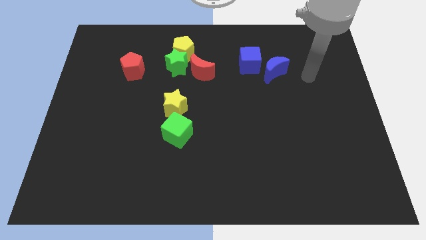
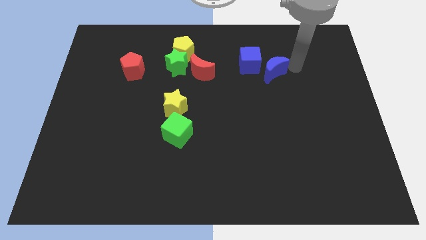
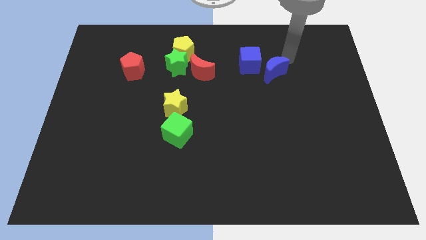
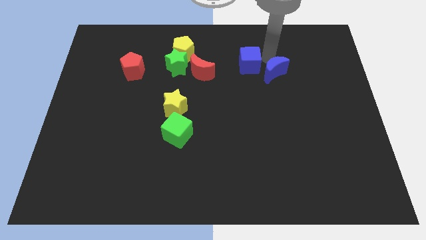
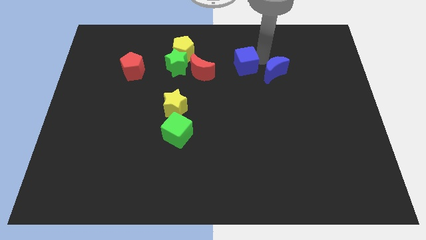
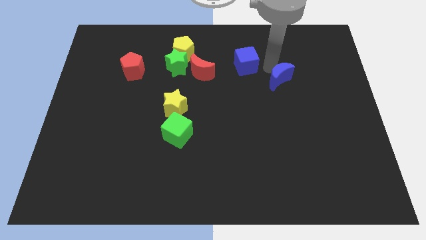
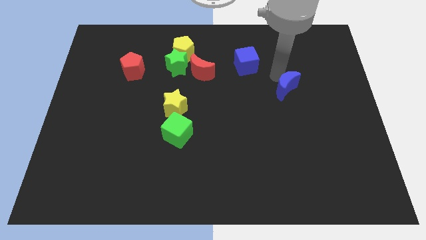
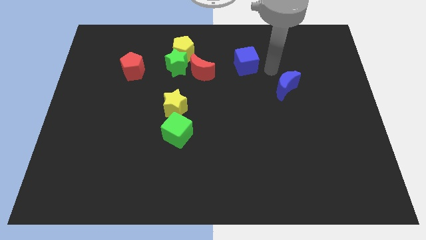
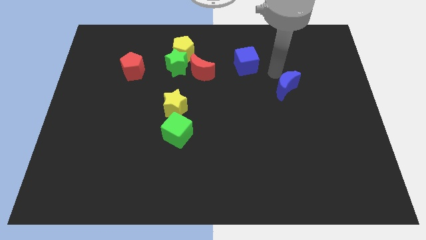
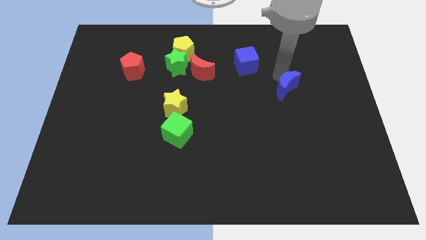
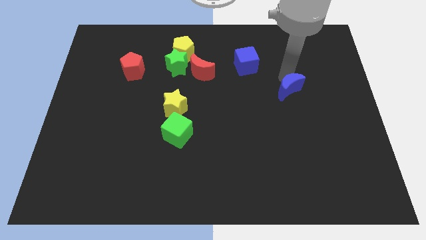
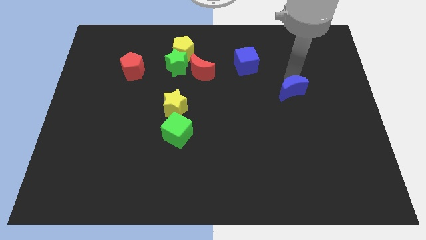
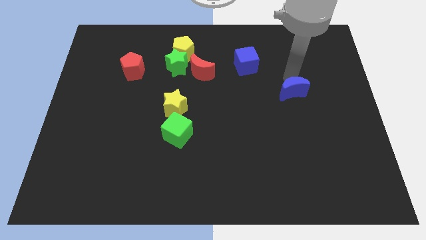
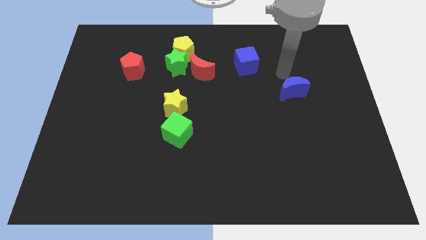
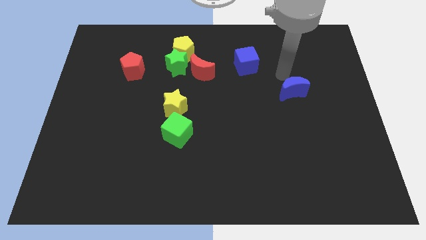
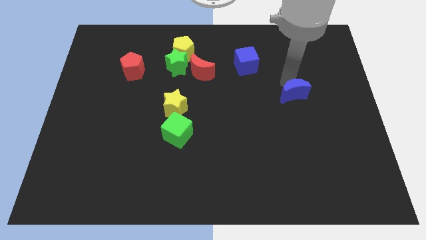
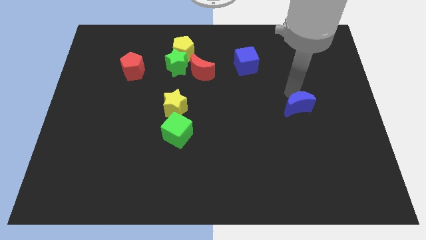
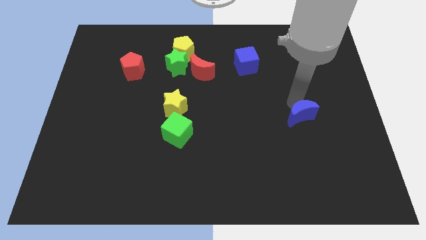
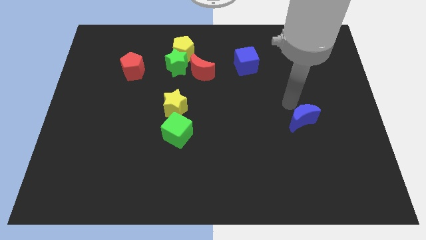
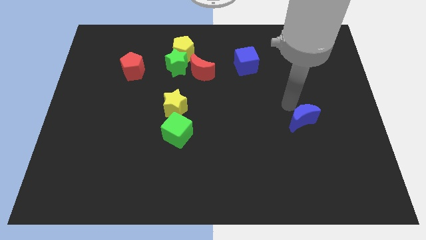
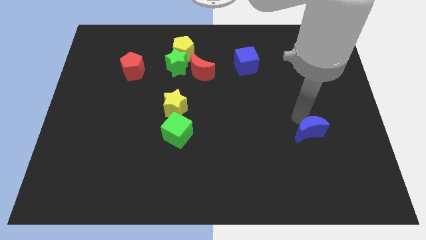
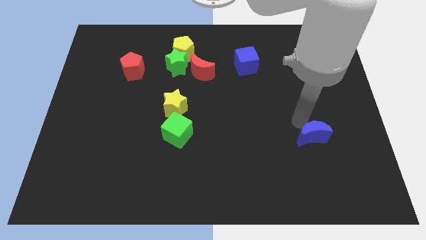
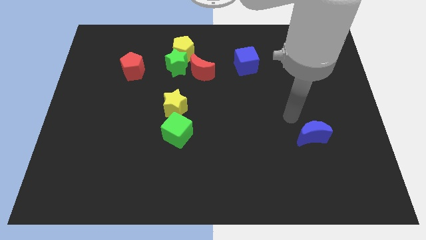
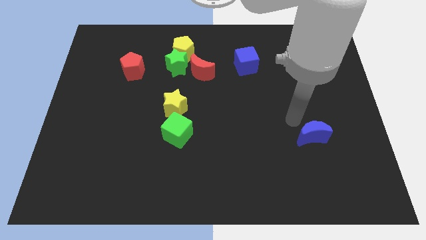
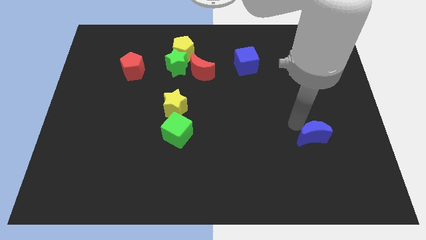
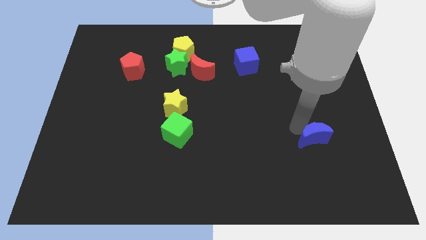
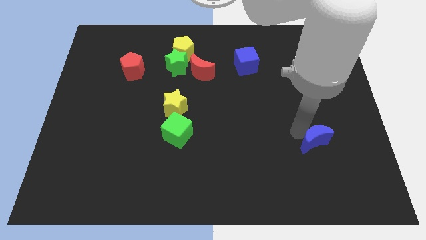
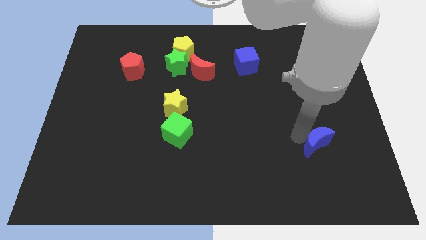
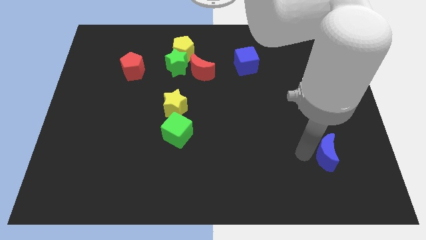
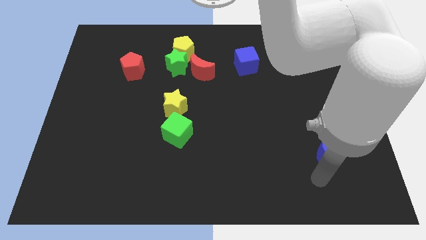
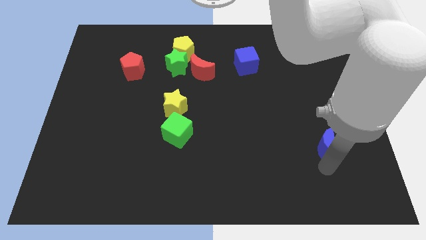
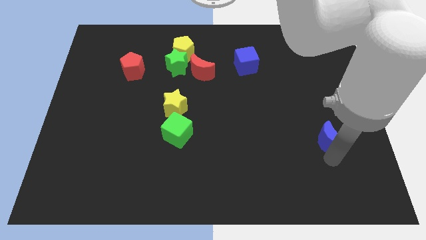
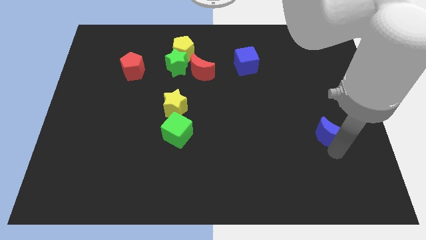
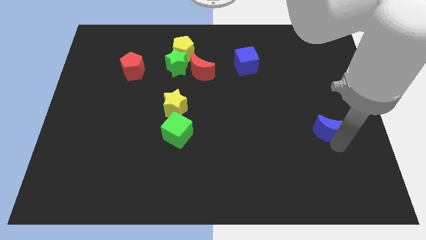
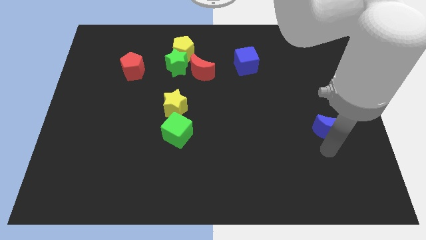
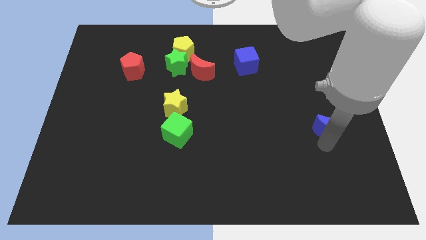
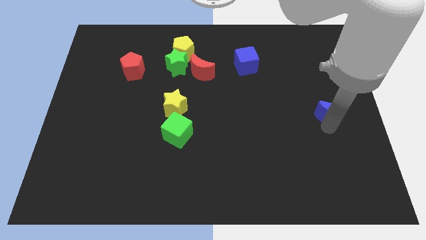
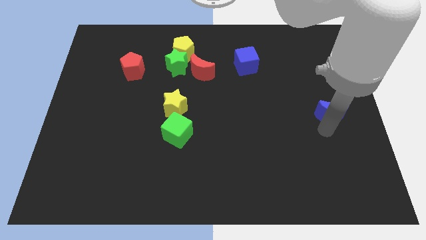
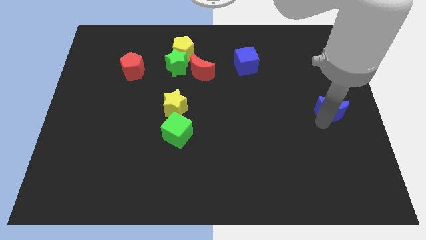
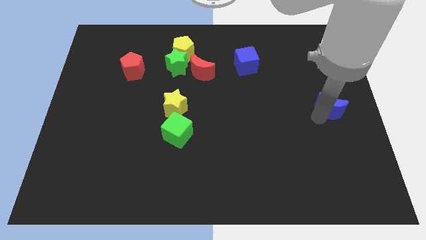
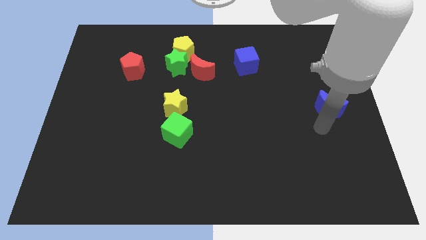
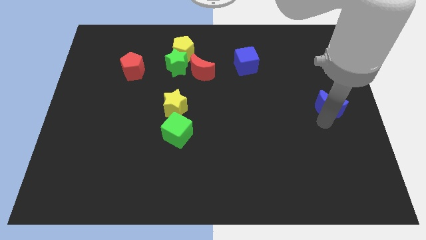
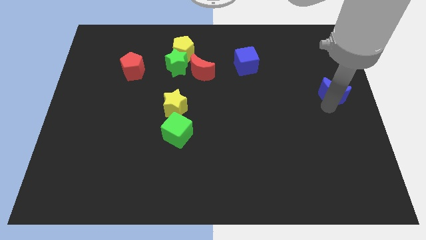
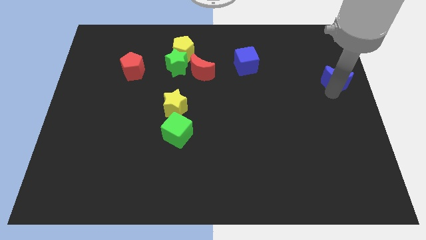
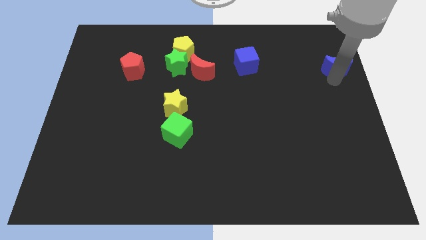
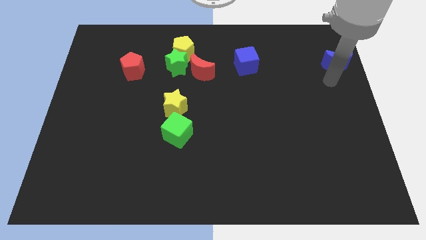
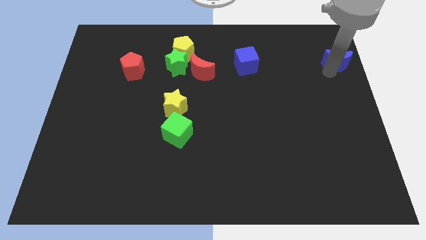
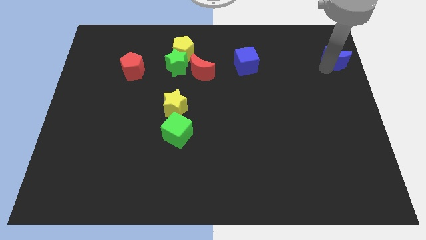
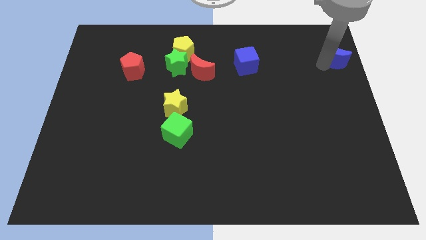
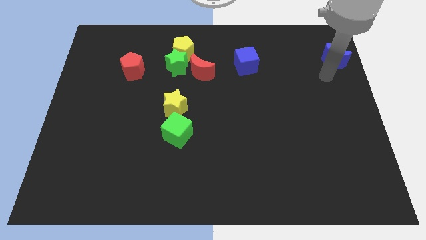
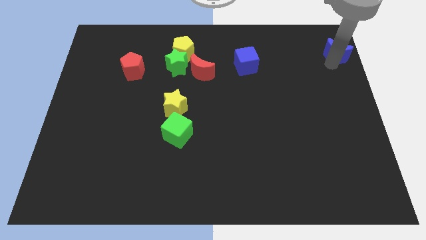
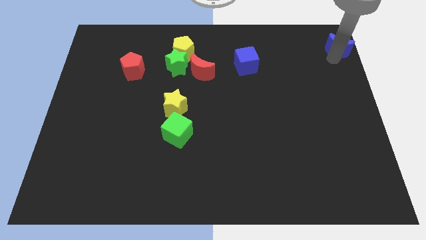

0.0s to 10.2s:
push the blue moon to the top right of the board

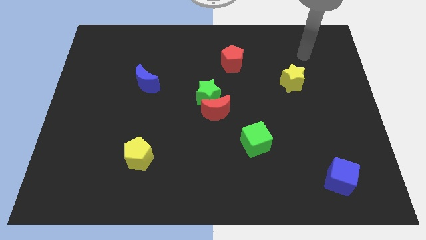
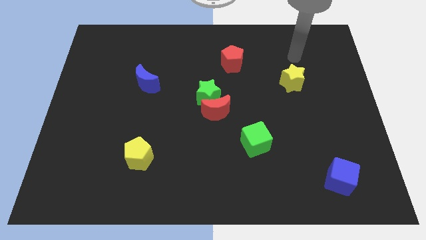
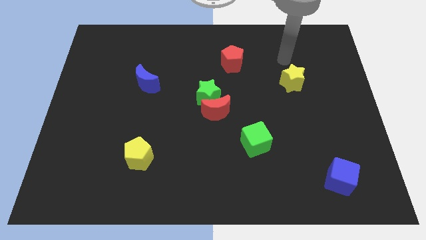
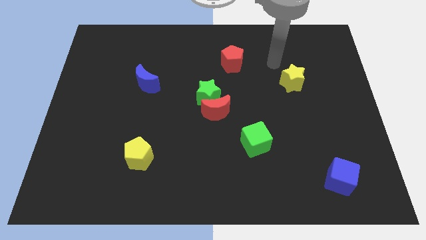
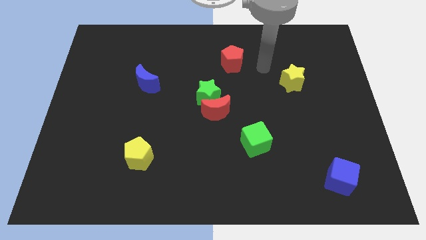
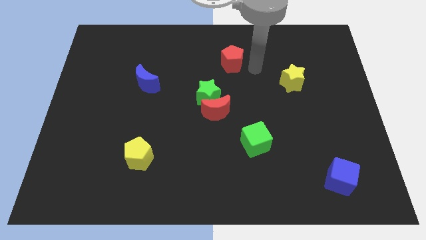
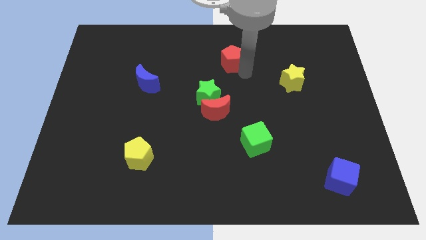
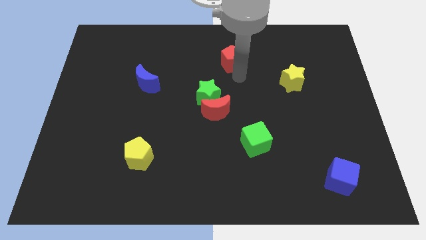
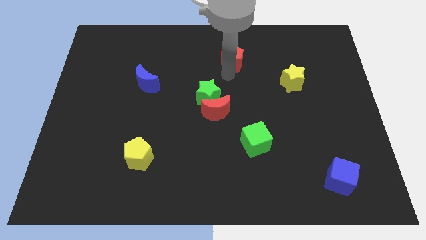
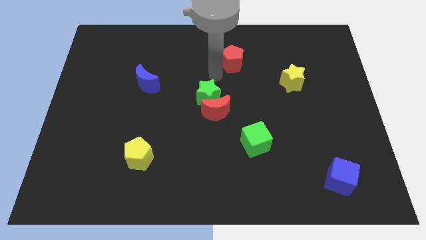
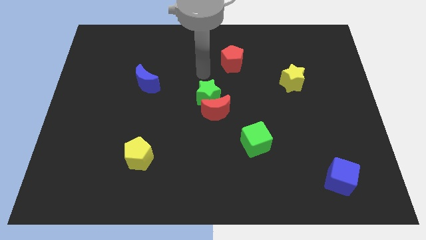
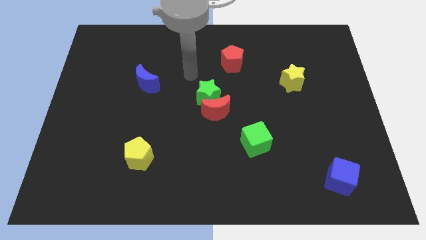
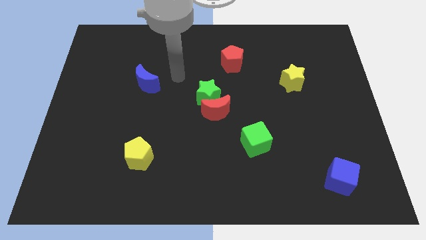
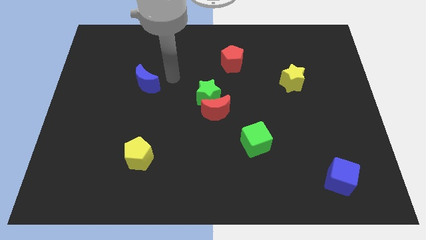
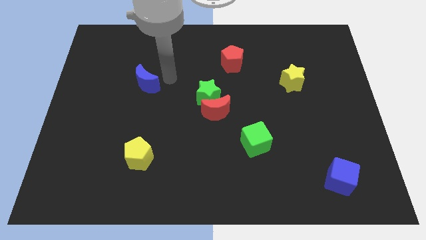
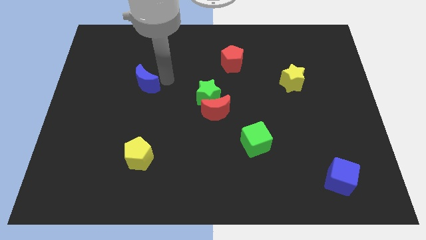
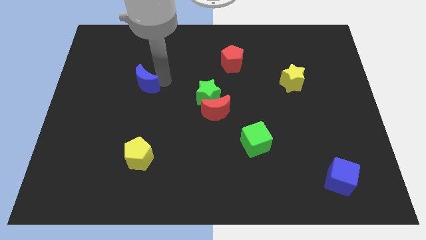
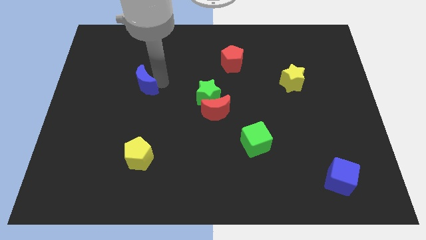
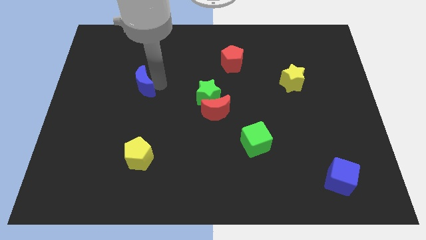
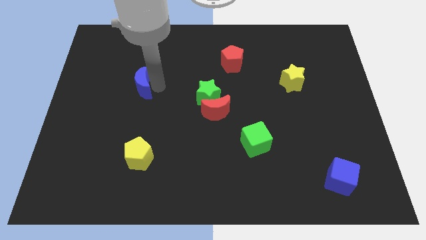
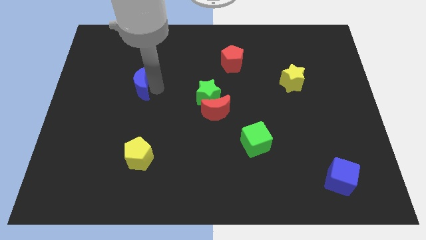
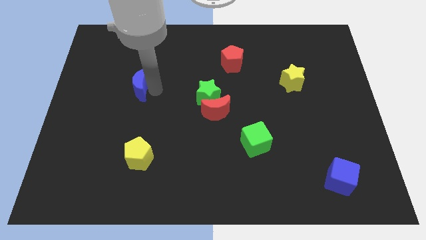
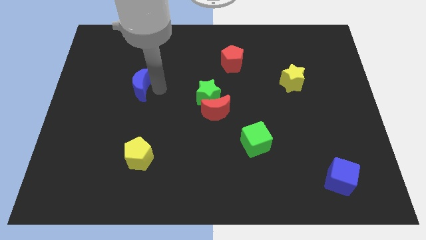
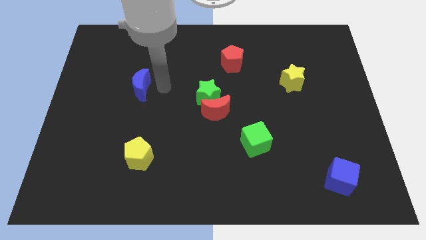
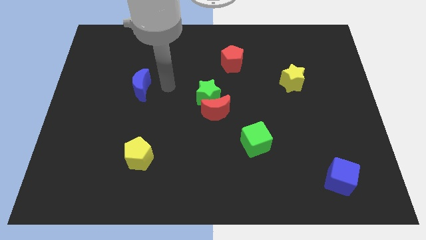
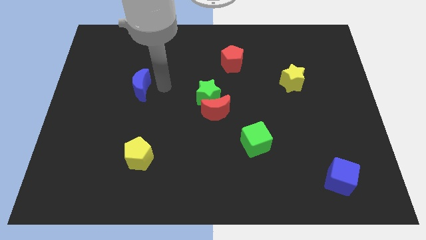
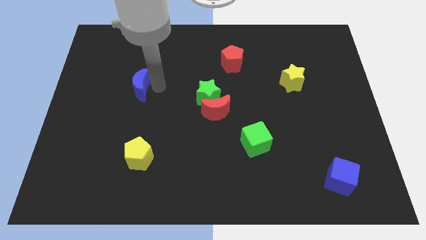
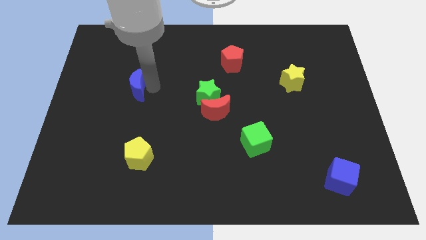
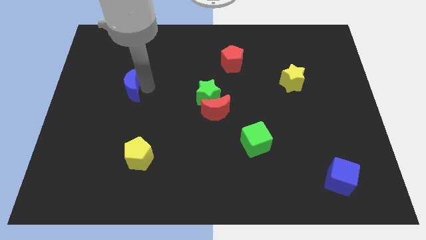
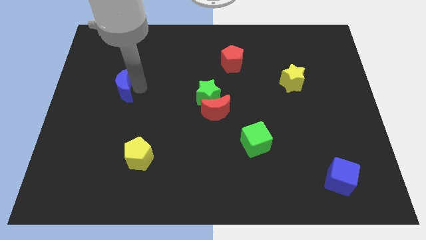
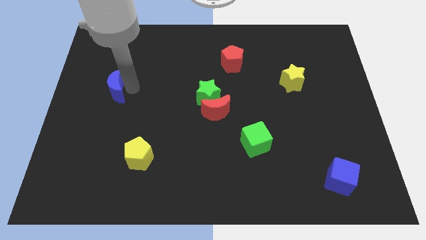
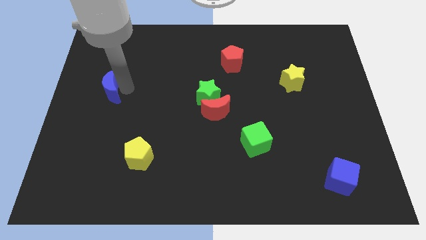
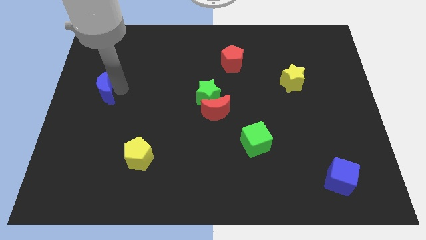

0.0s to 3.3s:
move the blue moon to the left side of the board
